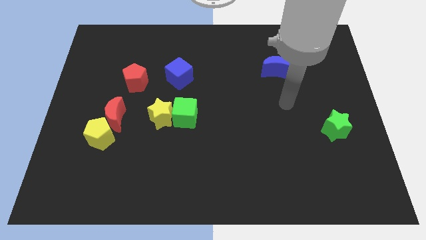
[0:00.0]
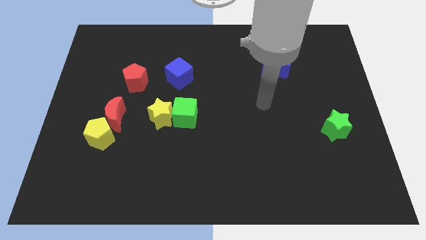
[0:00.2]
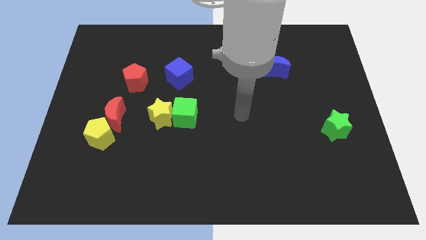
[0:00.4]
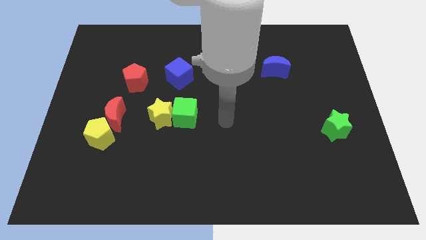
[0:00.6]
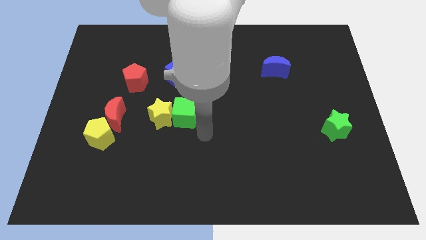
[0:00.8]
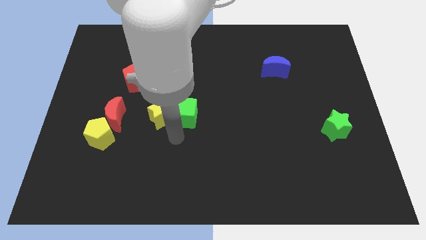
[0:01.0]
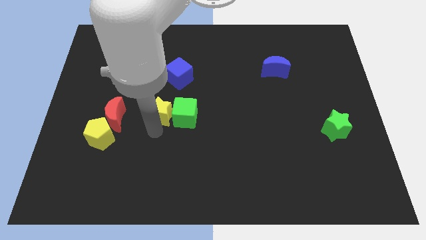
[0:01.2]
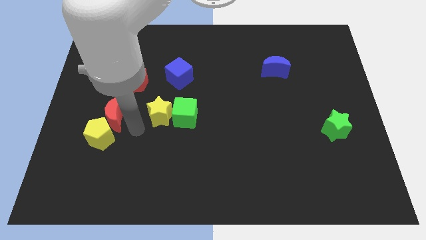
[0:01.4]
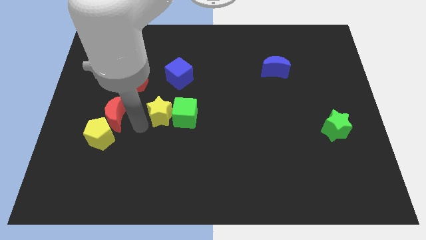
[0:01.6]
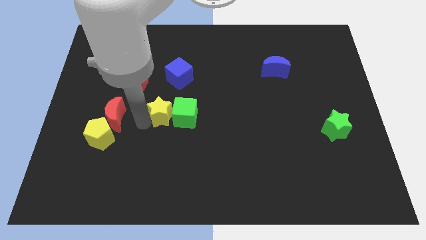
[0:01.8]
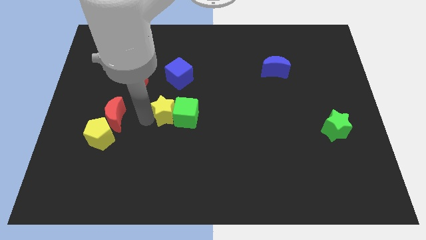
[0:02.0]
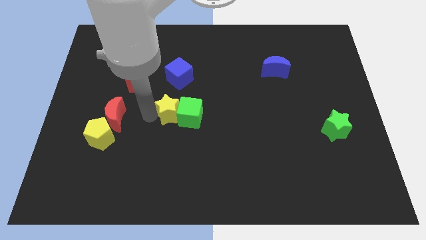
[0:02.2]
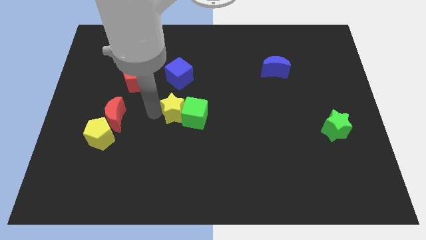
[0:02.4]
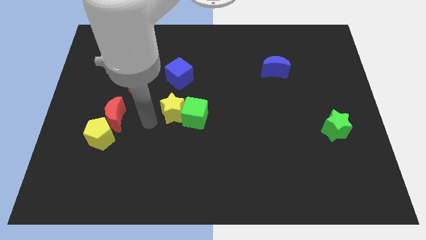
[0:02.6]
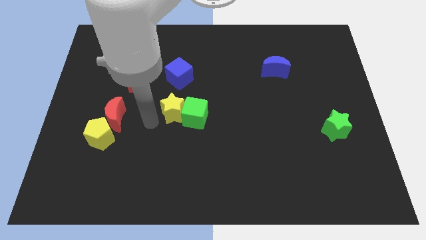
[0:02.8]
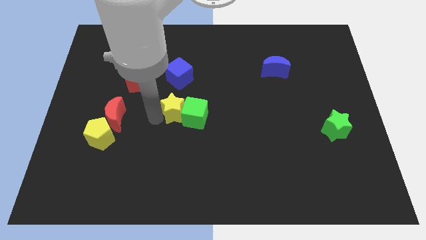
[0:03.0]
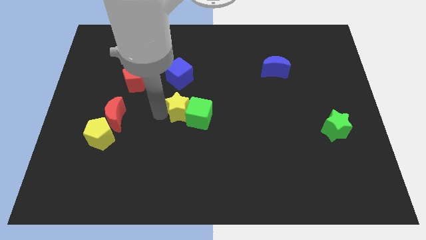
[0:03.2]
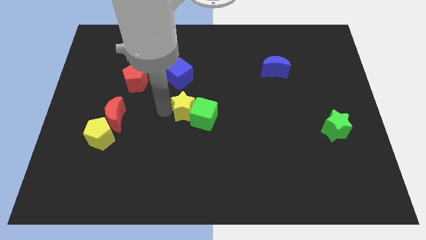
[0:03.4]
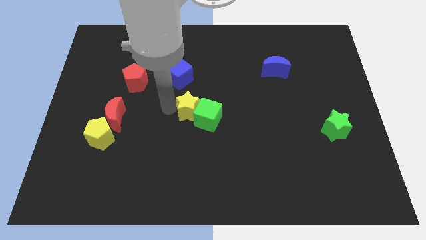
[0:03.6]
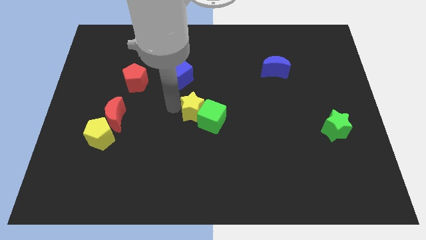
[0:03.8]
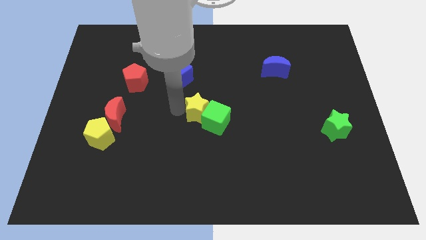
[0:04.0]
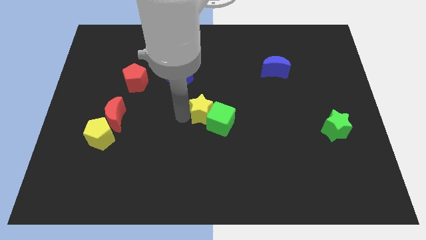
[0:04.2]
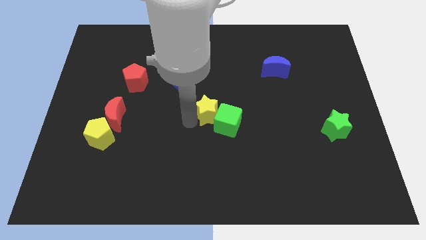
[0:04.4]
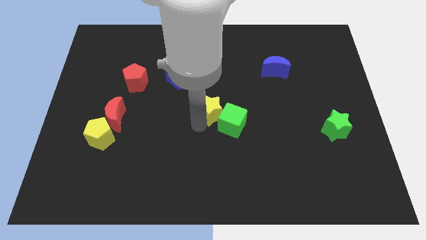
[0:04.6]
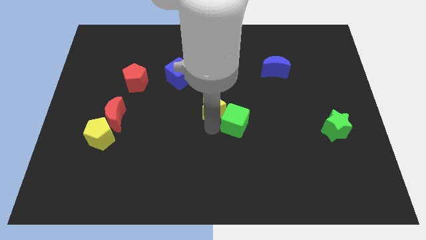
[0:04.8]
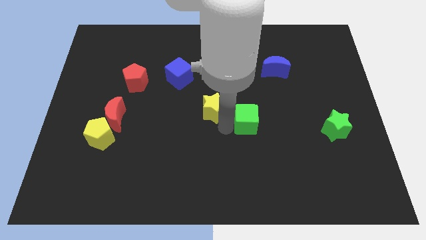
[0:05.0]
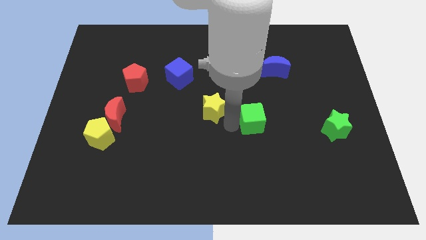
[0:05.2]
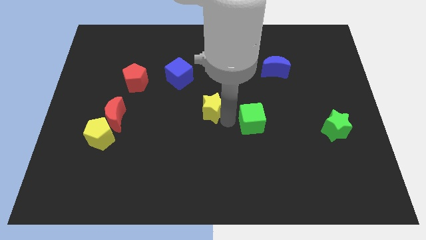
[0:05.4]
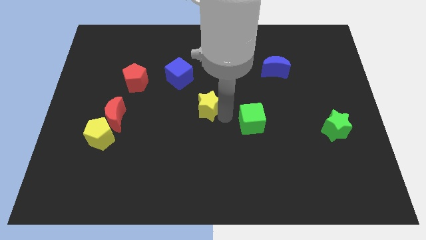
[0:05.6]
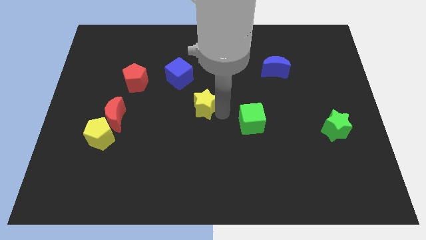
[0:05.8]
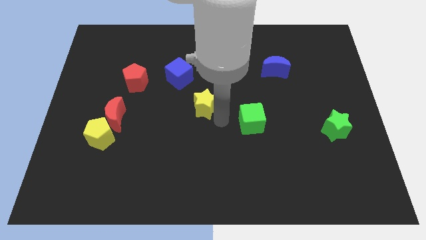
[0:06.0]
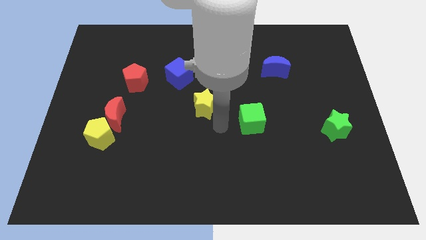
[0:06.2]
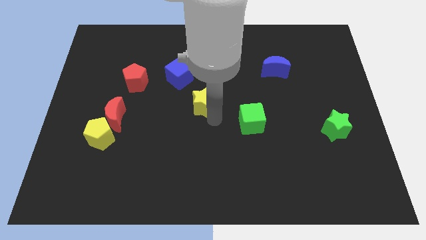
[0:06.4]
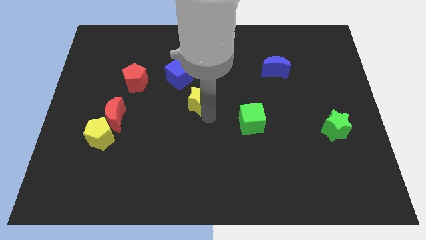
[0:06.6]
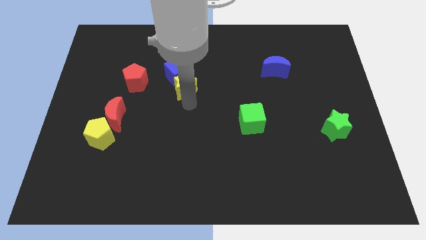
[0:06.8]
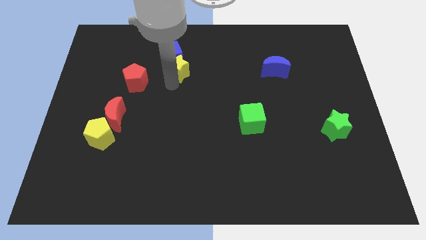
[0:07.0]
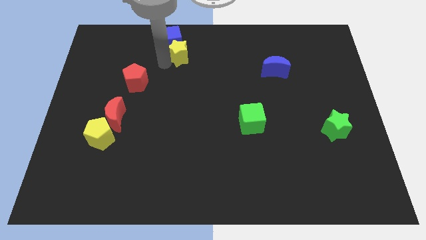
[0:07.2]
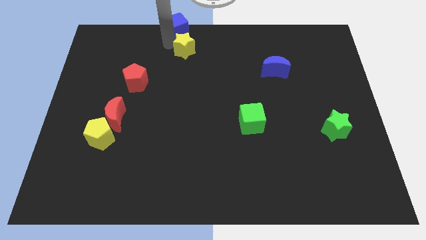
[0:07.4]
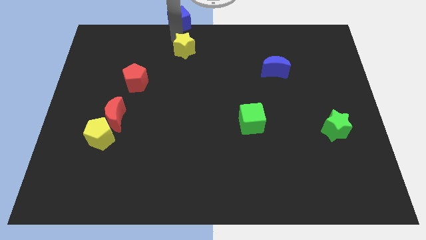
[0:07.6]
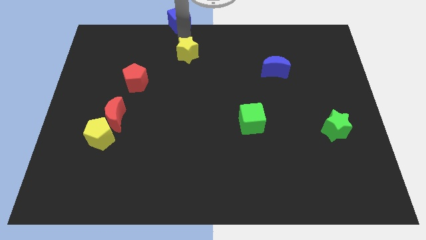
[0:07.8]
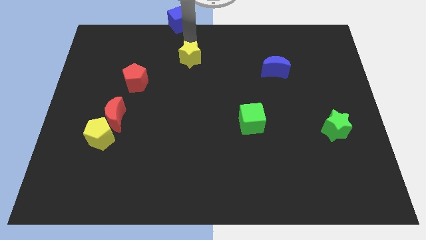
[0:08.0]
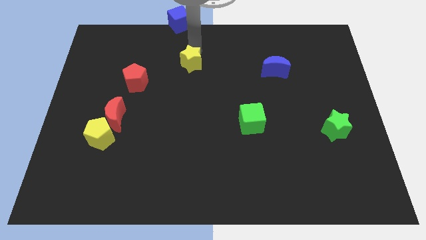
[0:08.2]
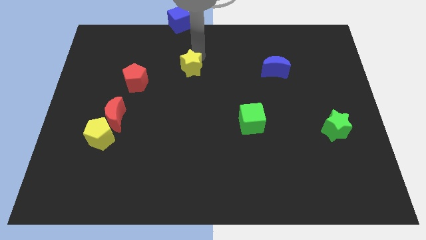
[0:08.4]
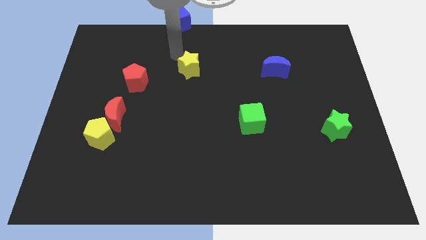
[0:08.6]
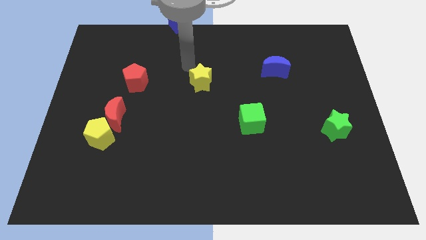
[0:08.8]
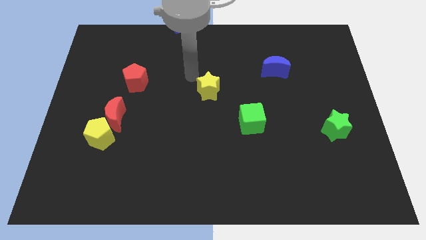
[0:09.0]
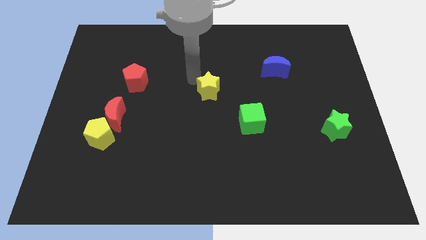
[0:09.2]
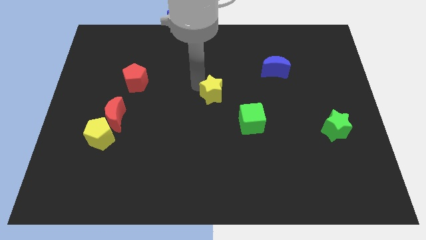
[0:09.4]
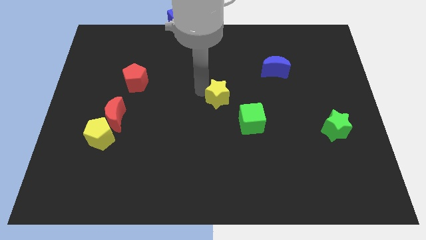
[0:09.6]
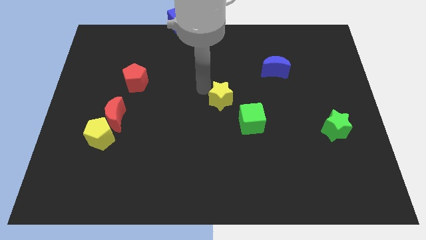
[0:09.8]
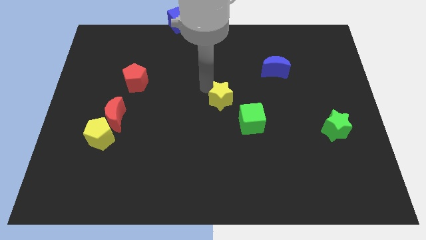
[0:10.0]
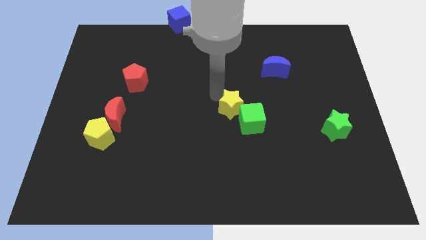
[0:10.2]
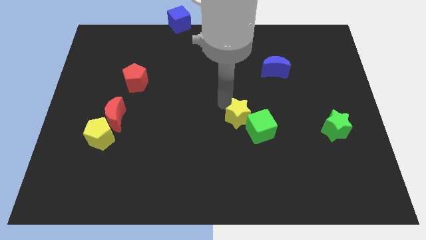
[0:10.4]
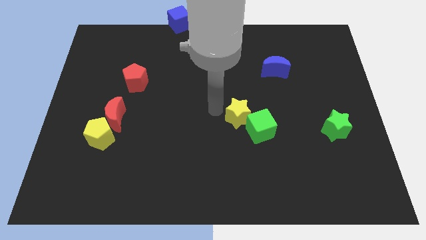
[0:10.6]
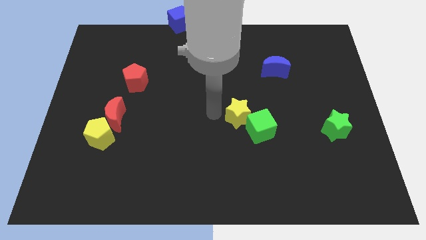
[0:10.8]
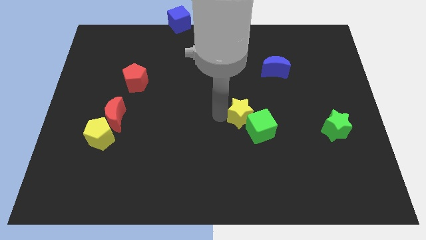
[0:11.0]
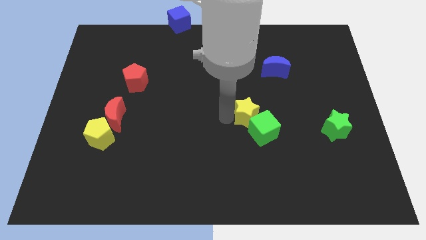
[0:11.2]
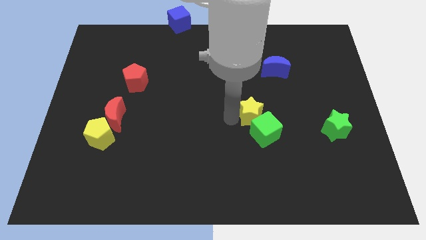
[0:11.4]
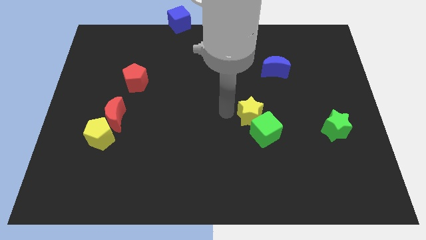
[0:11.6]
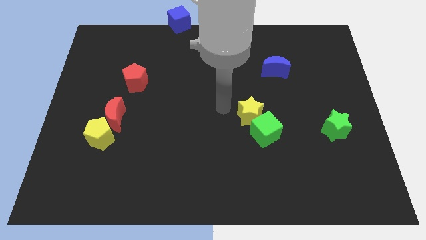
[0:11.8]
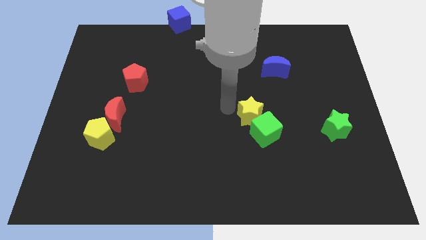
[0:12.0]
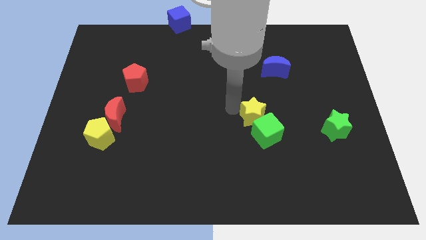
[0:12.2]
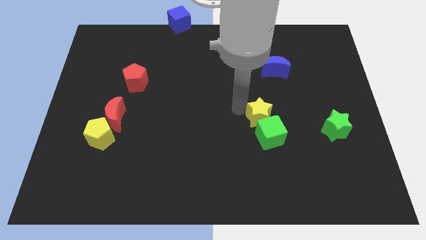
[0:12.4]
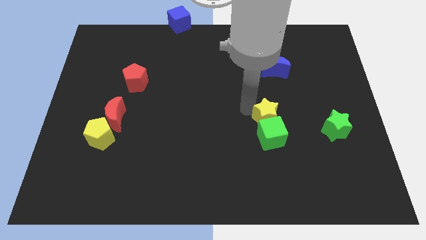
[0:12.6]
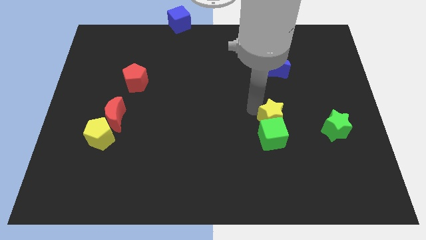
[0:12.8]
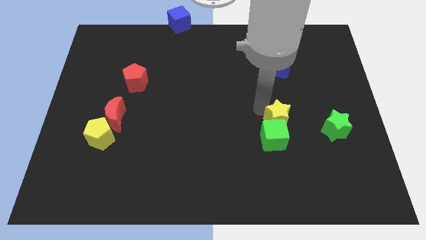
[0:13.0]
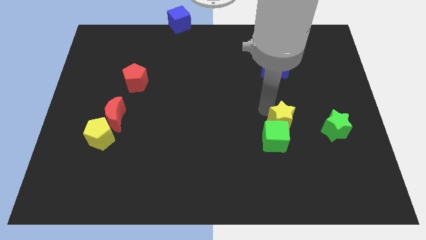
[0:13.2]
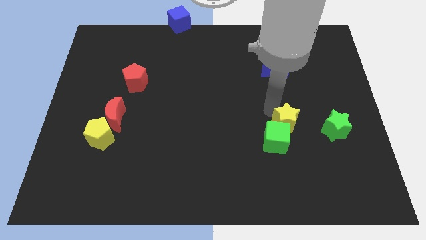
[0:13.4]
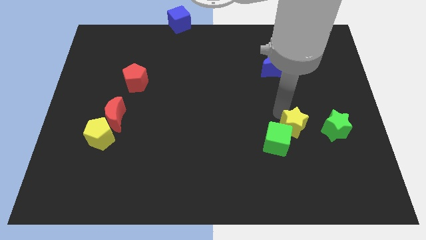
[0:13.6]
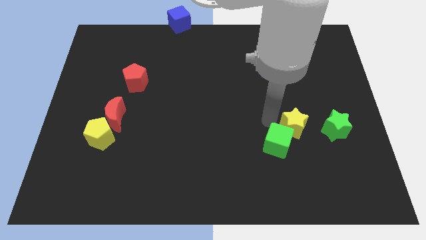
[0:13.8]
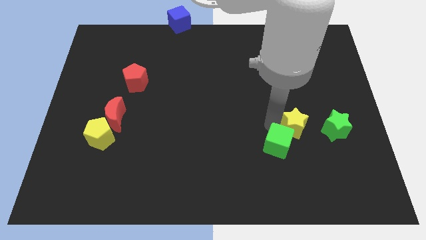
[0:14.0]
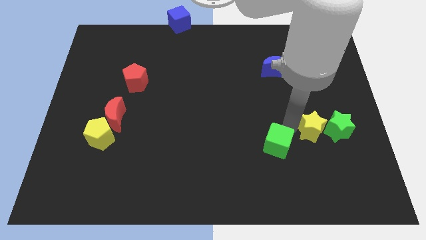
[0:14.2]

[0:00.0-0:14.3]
put the yellow star next to the green star
